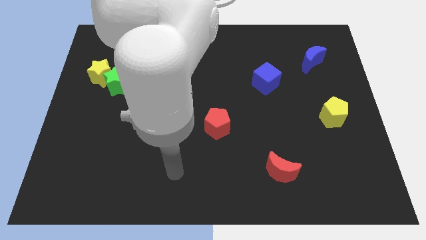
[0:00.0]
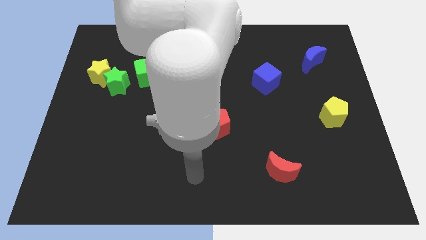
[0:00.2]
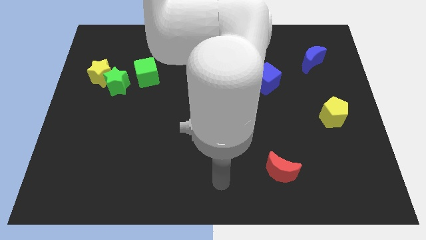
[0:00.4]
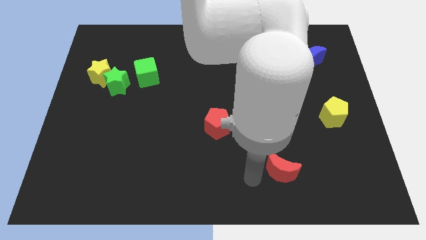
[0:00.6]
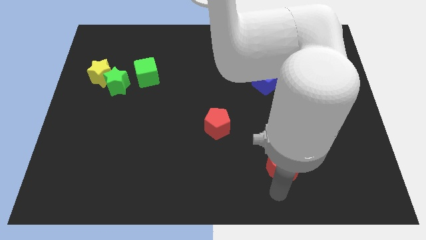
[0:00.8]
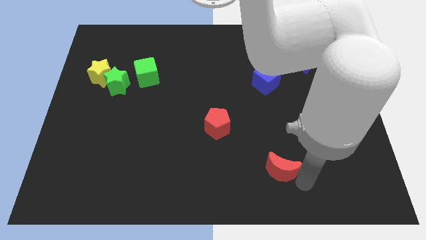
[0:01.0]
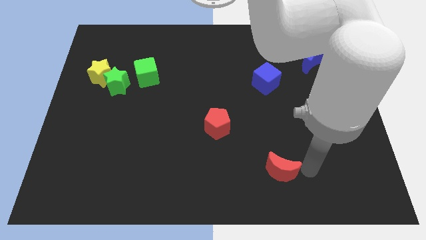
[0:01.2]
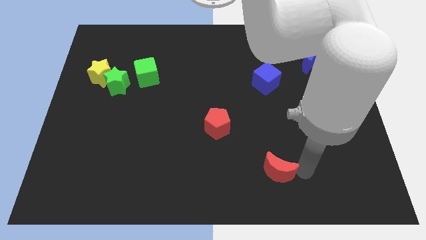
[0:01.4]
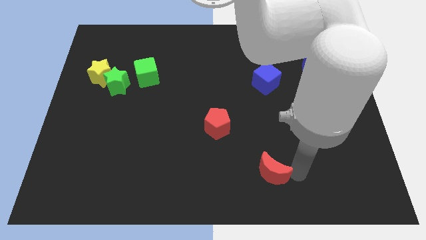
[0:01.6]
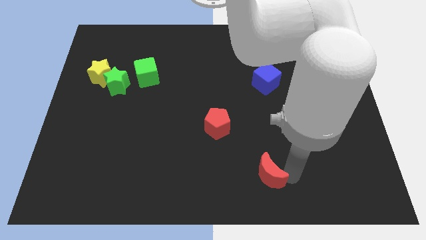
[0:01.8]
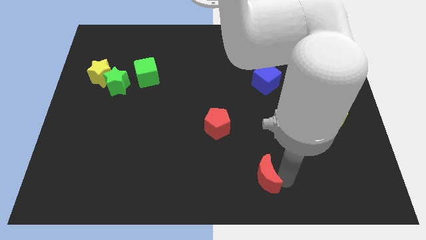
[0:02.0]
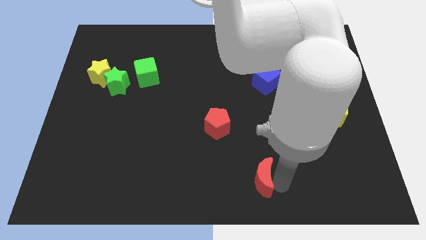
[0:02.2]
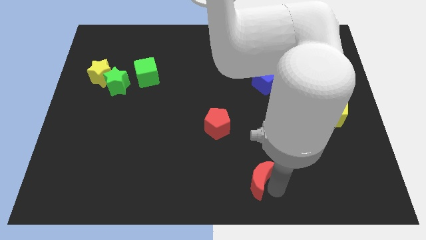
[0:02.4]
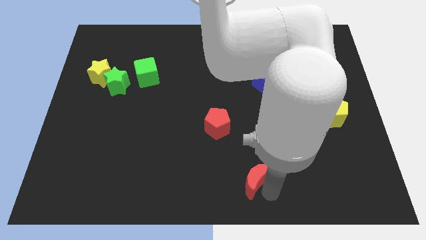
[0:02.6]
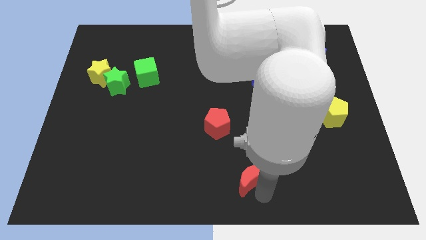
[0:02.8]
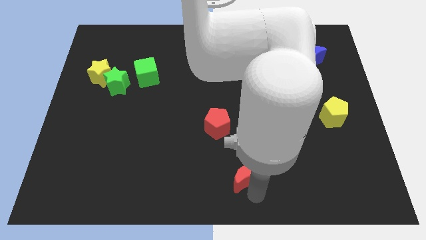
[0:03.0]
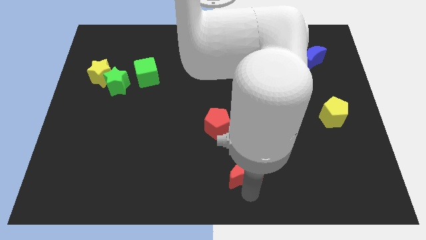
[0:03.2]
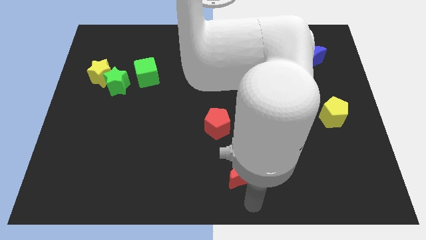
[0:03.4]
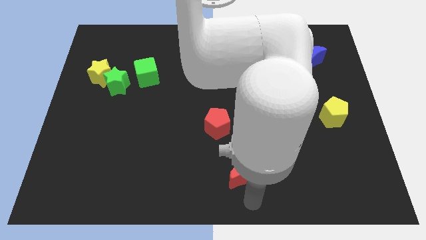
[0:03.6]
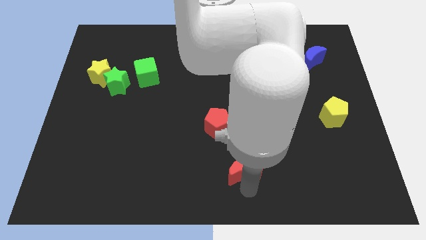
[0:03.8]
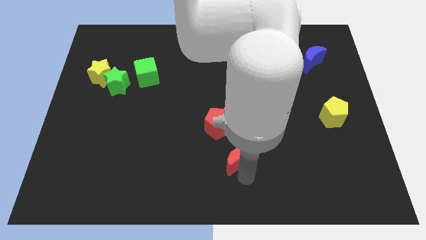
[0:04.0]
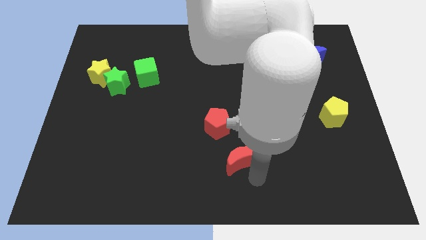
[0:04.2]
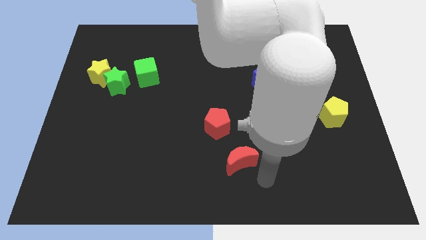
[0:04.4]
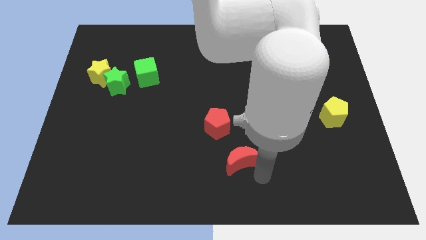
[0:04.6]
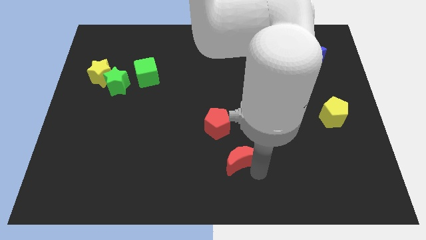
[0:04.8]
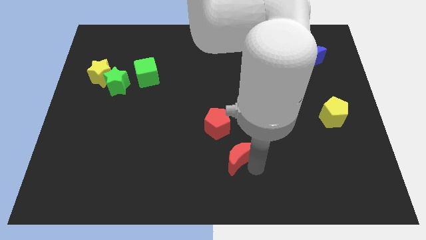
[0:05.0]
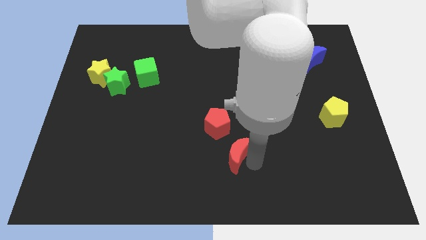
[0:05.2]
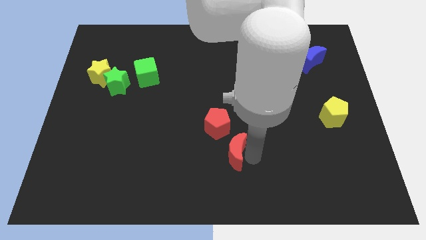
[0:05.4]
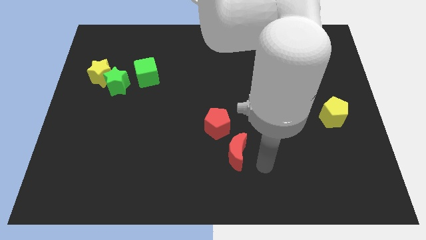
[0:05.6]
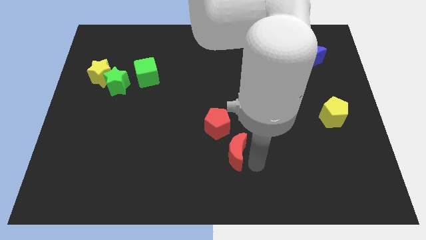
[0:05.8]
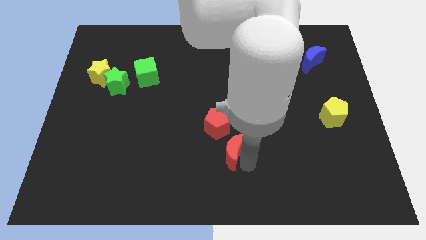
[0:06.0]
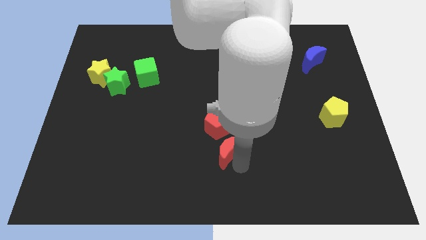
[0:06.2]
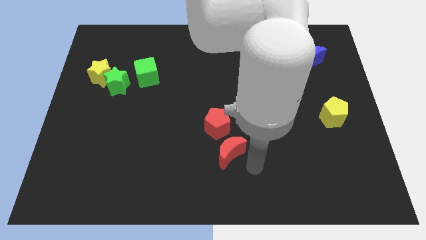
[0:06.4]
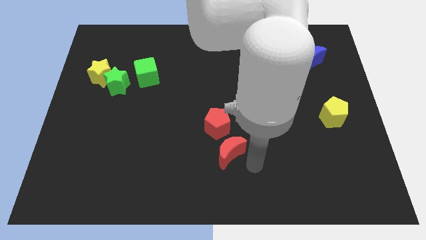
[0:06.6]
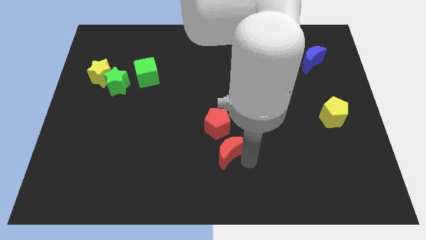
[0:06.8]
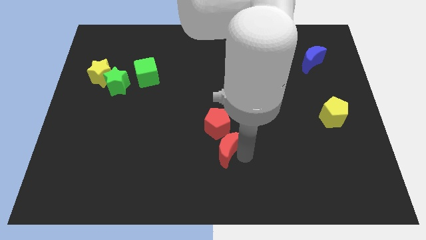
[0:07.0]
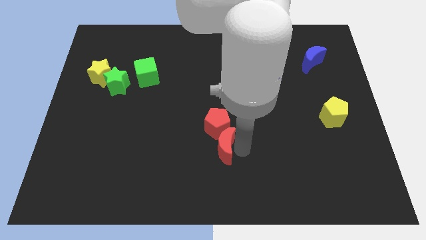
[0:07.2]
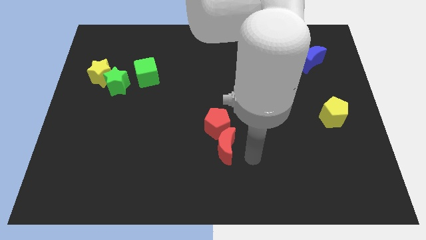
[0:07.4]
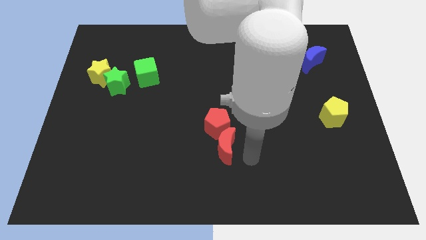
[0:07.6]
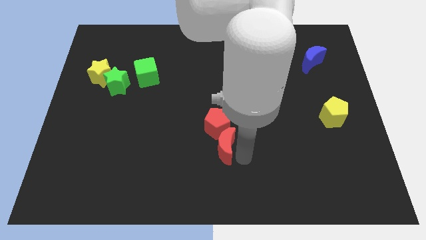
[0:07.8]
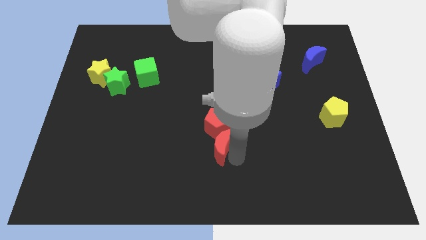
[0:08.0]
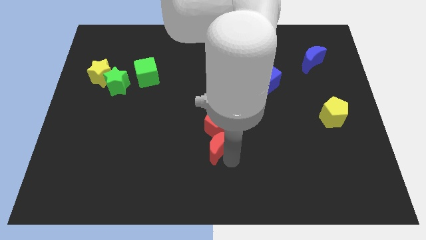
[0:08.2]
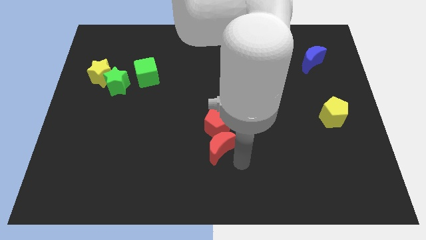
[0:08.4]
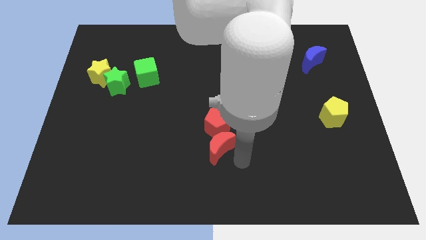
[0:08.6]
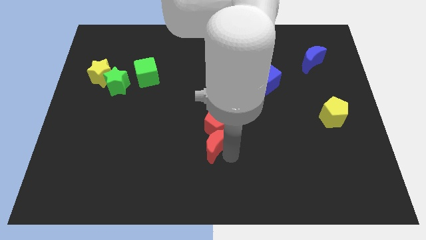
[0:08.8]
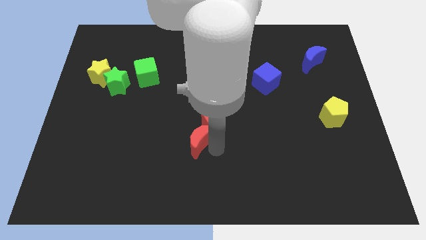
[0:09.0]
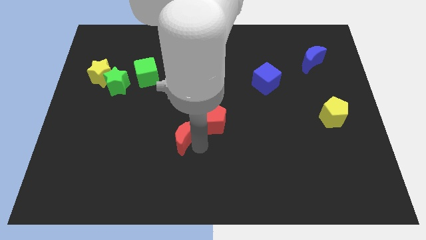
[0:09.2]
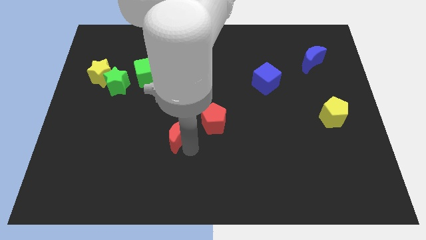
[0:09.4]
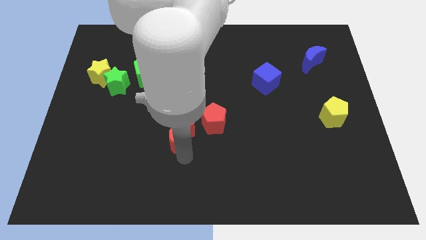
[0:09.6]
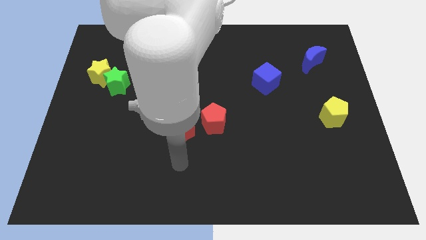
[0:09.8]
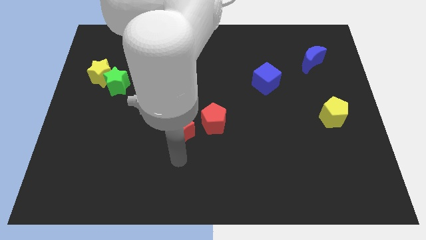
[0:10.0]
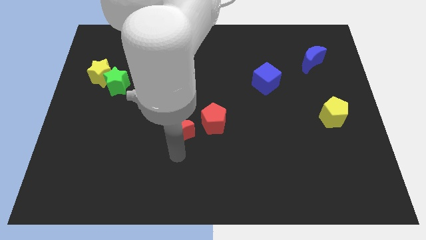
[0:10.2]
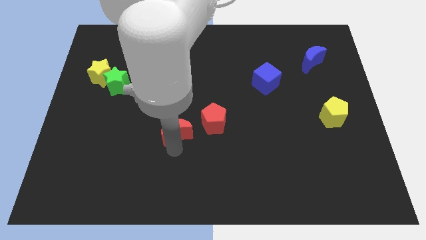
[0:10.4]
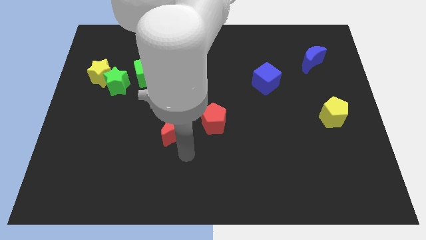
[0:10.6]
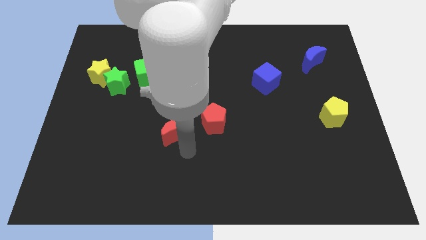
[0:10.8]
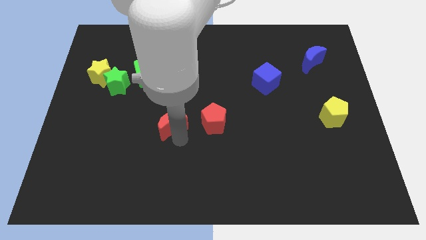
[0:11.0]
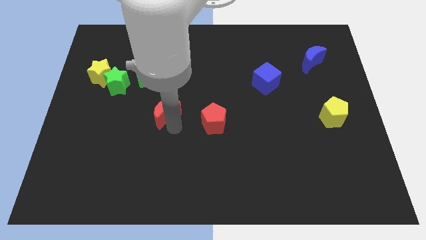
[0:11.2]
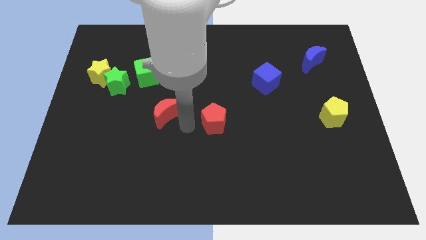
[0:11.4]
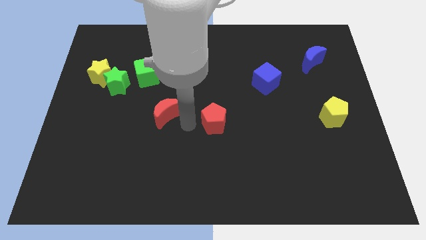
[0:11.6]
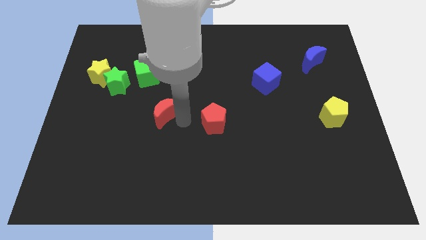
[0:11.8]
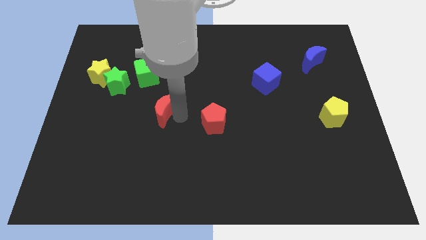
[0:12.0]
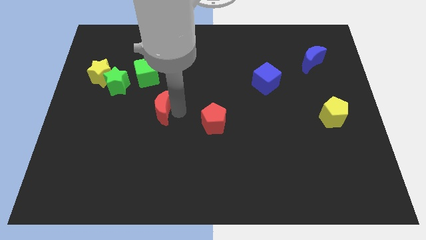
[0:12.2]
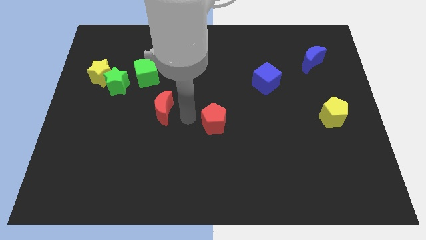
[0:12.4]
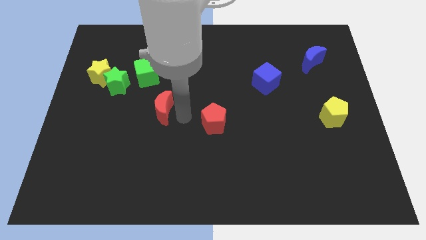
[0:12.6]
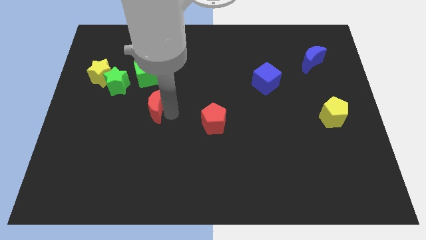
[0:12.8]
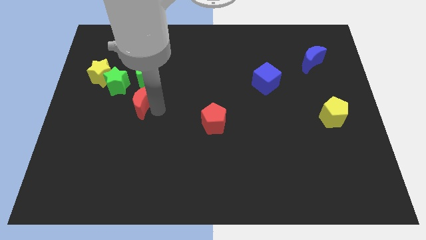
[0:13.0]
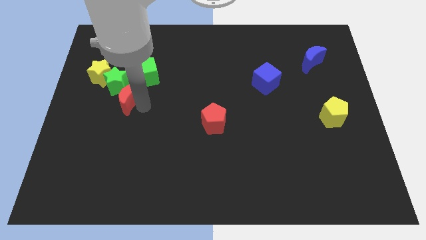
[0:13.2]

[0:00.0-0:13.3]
push the red moon to the bottom right side of the yellow star

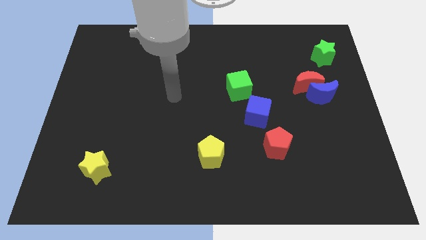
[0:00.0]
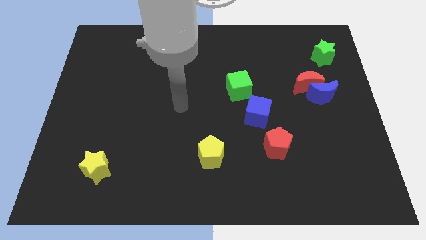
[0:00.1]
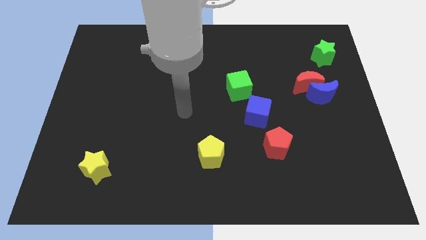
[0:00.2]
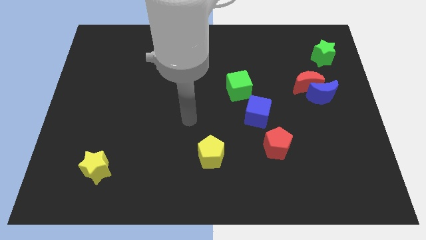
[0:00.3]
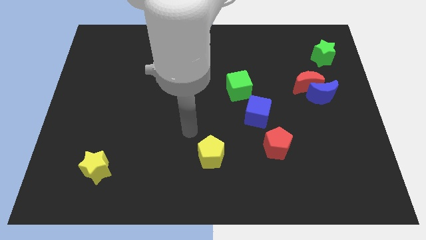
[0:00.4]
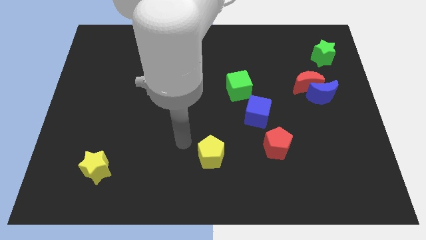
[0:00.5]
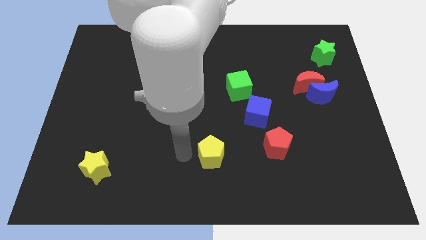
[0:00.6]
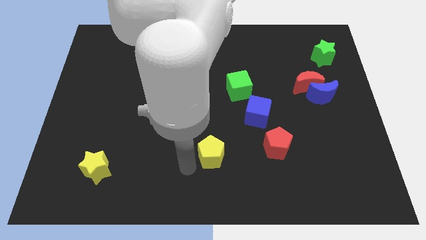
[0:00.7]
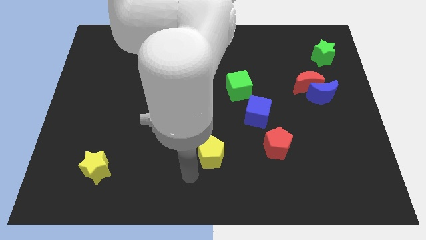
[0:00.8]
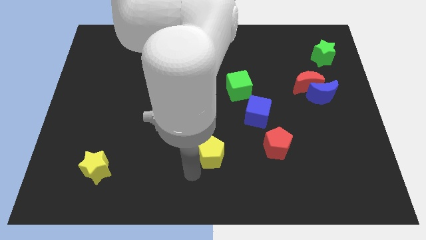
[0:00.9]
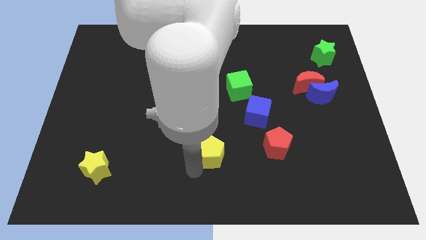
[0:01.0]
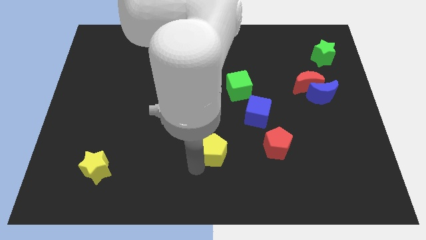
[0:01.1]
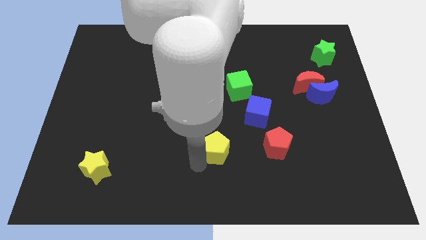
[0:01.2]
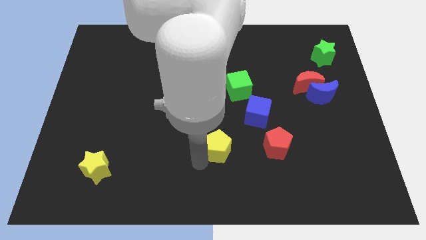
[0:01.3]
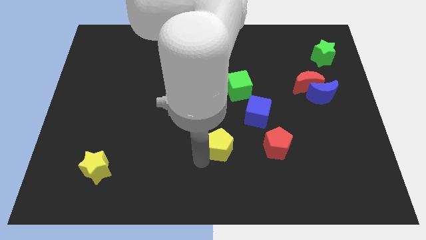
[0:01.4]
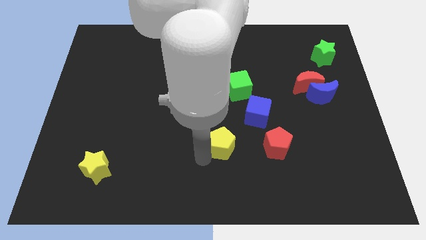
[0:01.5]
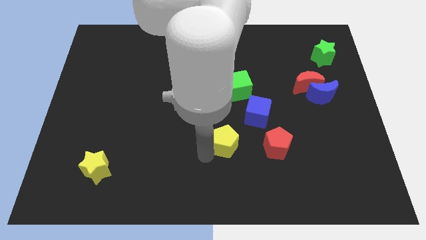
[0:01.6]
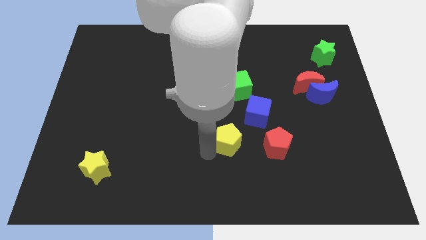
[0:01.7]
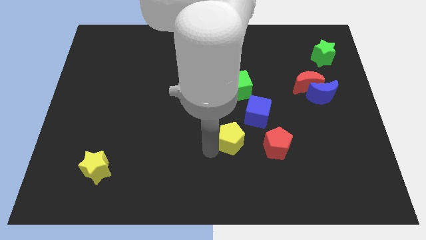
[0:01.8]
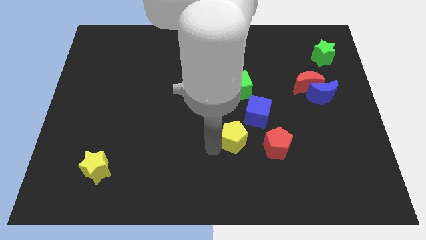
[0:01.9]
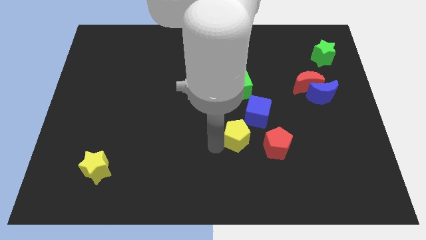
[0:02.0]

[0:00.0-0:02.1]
move the yellow pentagon diagonally up and to the left of the red pentagon
